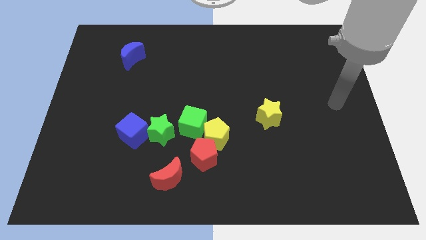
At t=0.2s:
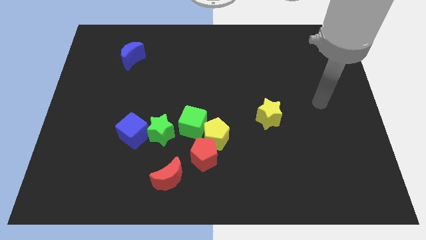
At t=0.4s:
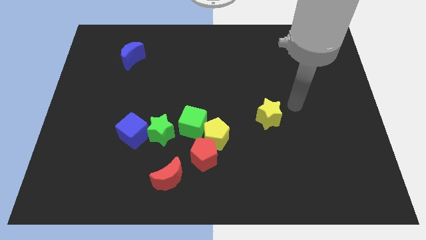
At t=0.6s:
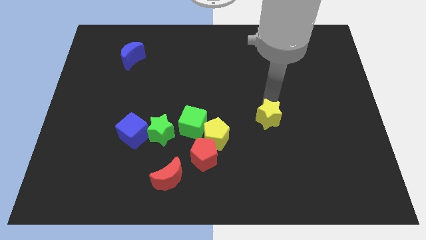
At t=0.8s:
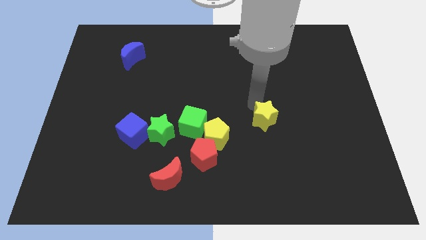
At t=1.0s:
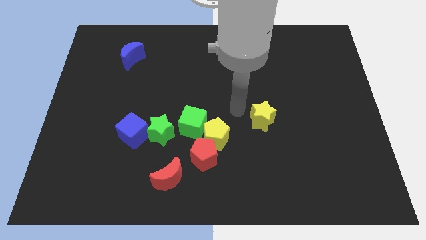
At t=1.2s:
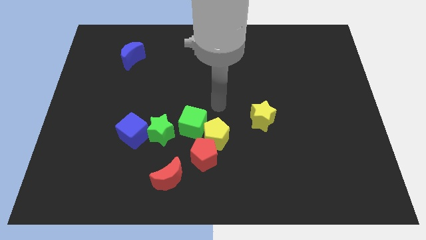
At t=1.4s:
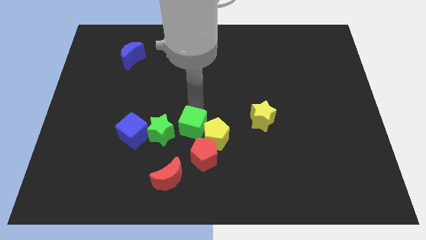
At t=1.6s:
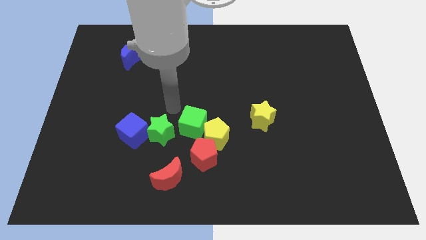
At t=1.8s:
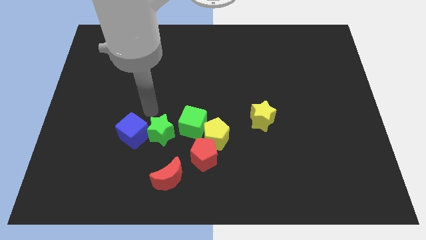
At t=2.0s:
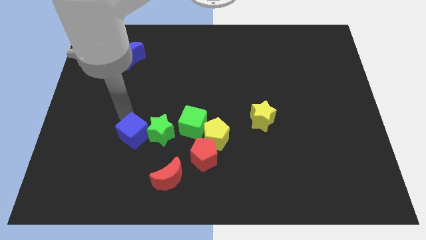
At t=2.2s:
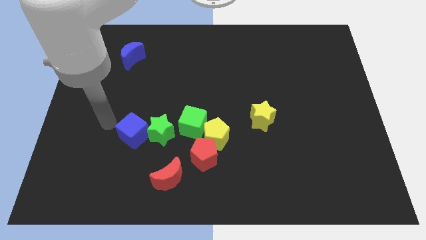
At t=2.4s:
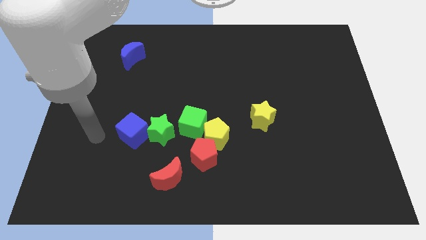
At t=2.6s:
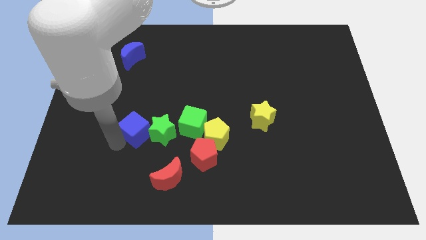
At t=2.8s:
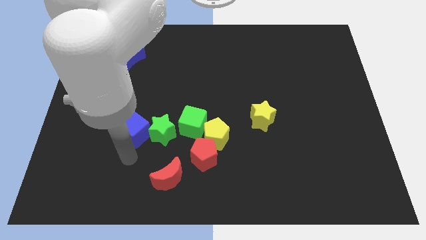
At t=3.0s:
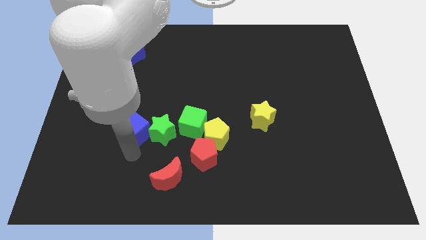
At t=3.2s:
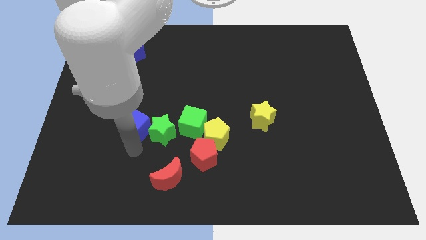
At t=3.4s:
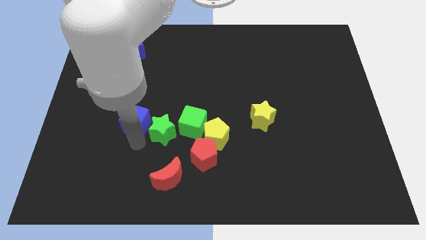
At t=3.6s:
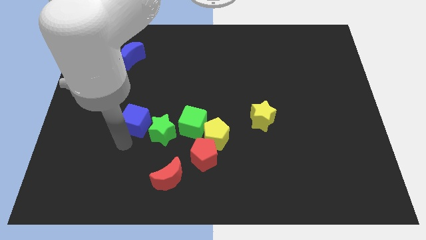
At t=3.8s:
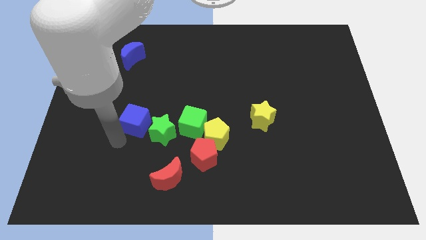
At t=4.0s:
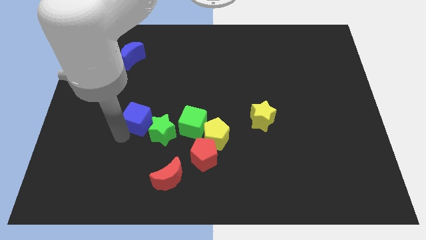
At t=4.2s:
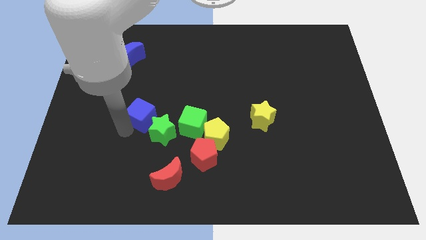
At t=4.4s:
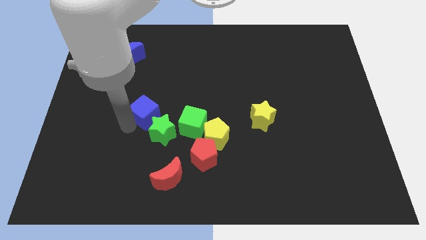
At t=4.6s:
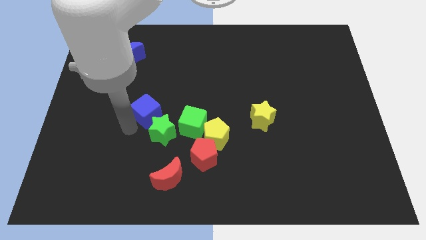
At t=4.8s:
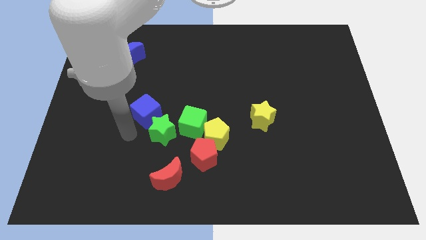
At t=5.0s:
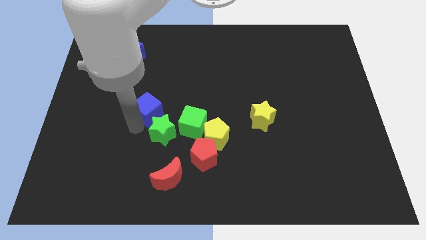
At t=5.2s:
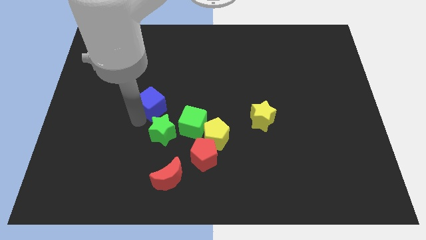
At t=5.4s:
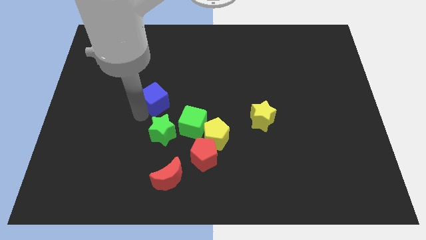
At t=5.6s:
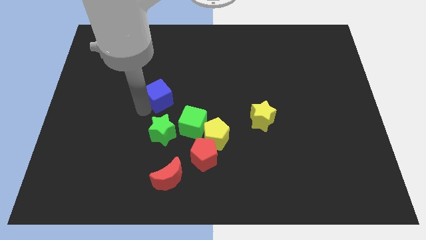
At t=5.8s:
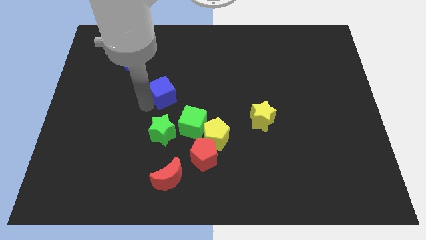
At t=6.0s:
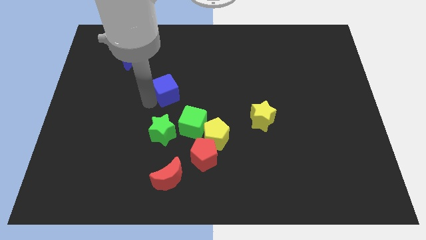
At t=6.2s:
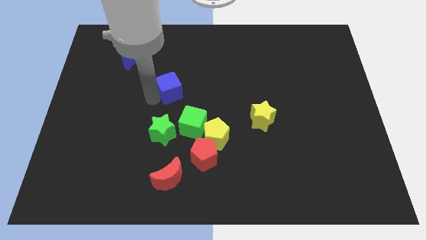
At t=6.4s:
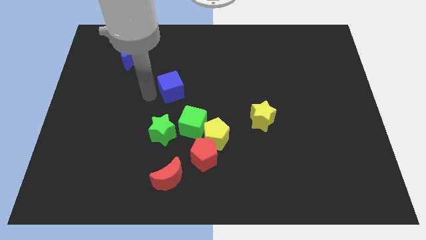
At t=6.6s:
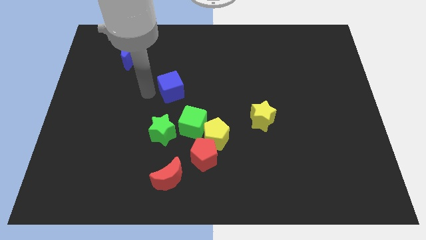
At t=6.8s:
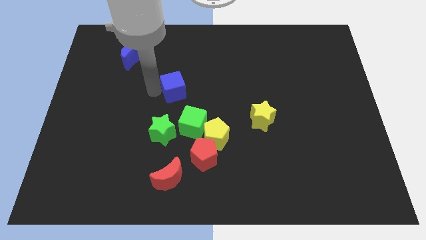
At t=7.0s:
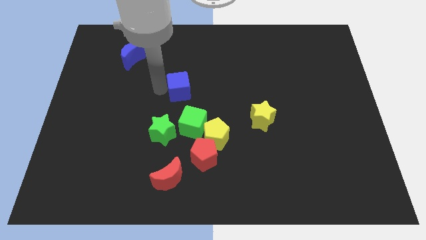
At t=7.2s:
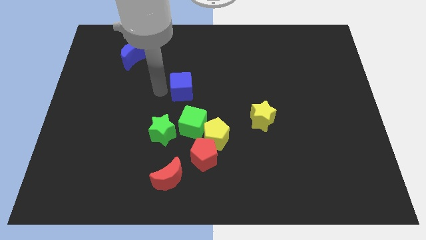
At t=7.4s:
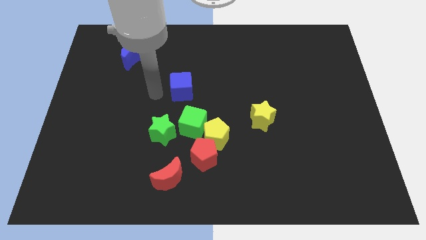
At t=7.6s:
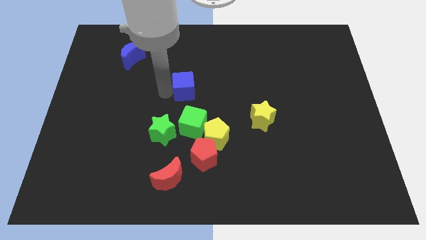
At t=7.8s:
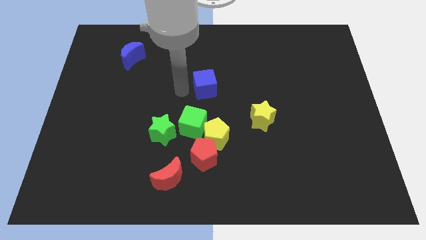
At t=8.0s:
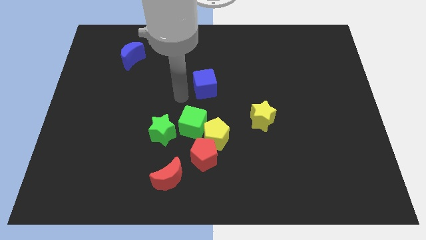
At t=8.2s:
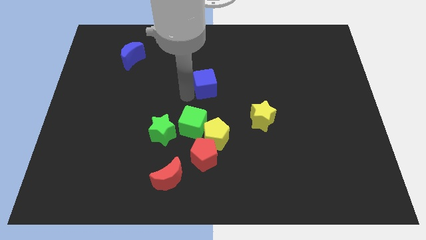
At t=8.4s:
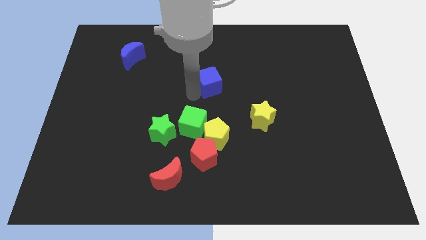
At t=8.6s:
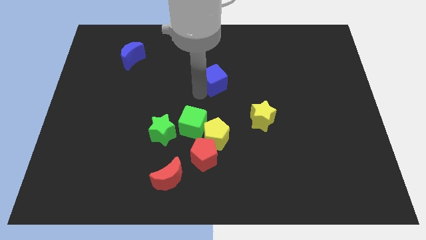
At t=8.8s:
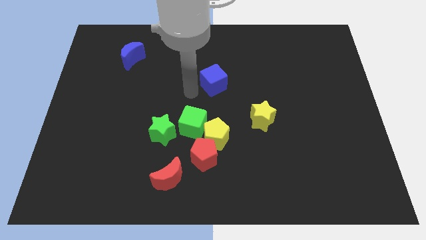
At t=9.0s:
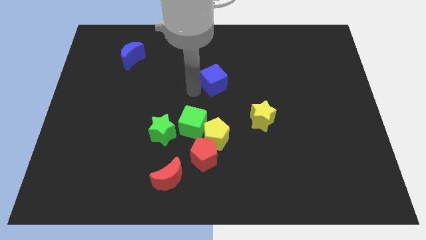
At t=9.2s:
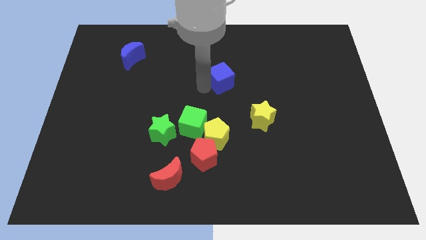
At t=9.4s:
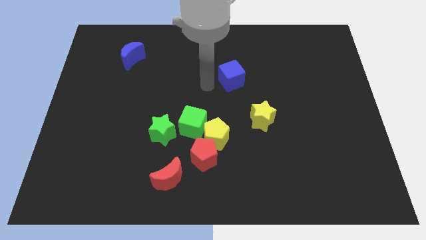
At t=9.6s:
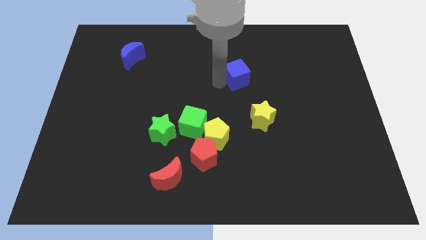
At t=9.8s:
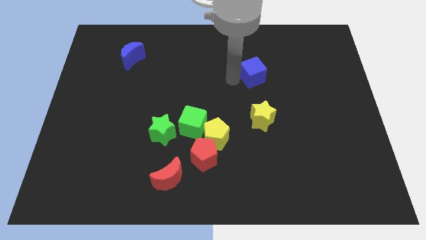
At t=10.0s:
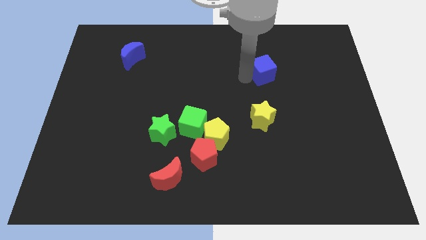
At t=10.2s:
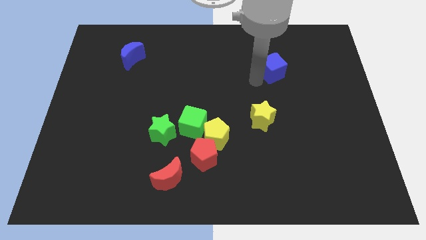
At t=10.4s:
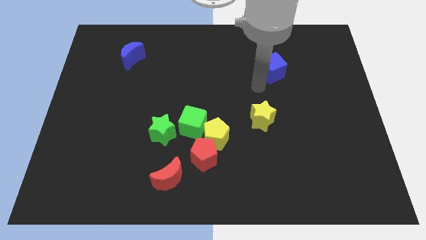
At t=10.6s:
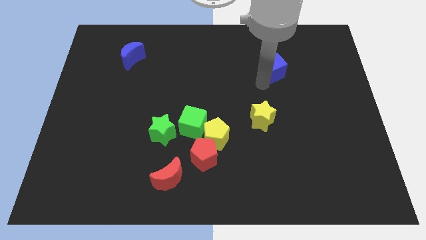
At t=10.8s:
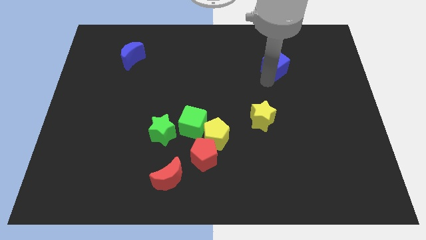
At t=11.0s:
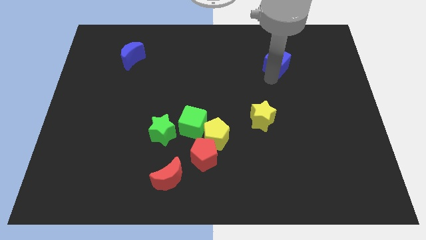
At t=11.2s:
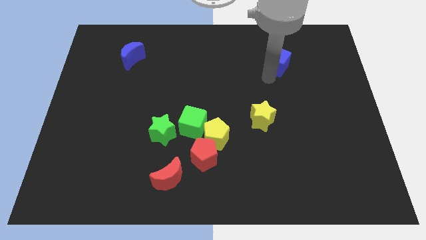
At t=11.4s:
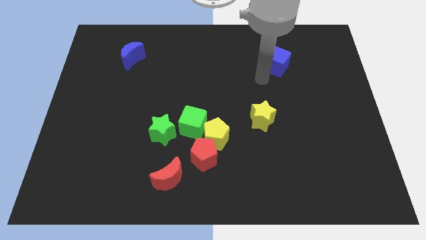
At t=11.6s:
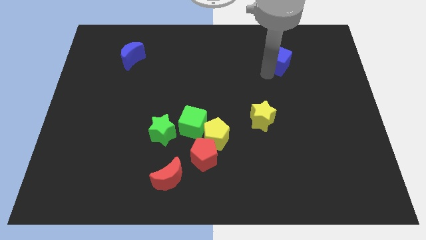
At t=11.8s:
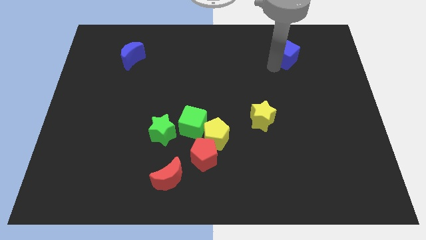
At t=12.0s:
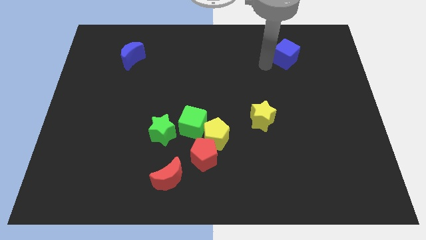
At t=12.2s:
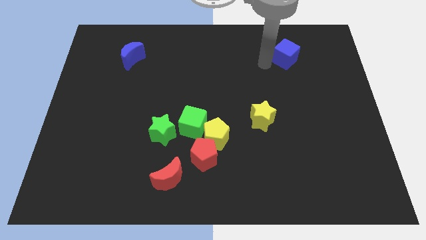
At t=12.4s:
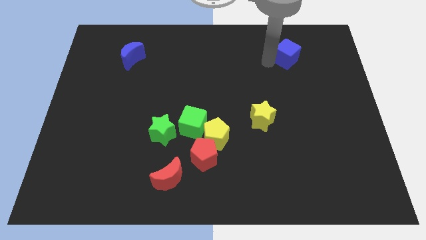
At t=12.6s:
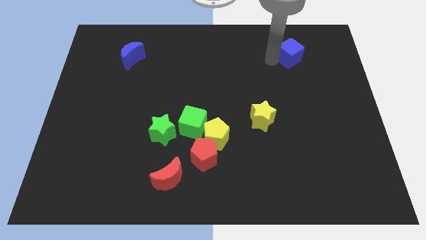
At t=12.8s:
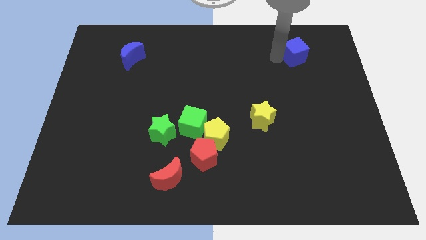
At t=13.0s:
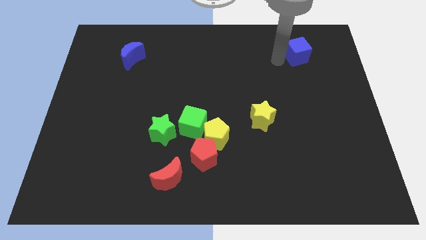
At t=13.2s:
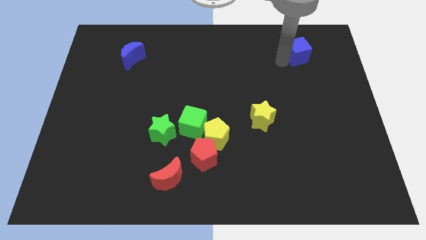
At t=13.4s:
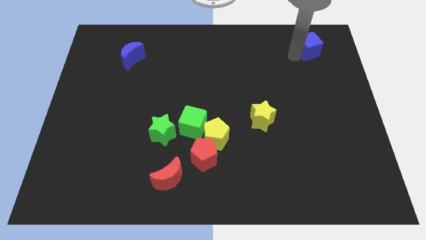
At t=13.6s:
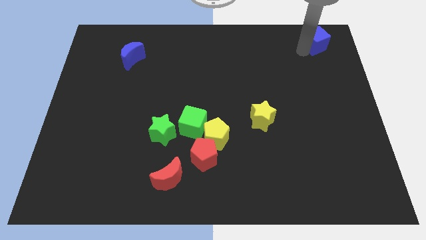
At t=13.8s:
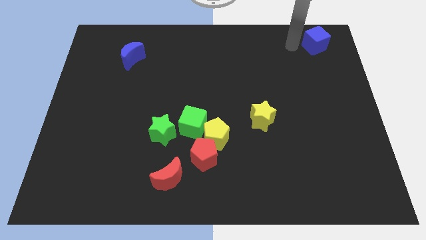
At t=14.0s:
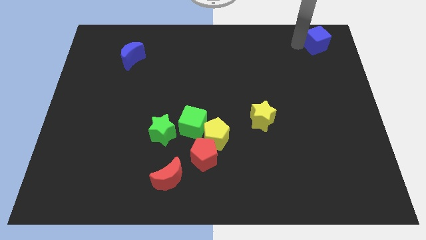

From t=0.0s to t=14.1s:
slide the blue cube to the top right corner

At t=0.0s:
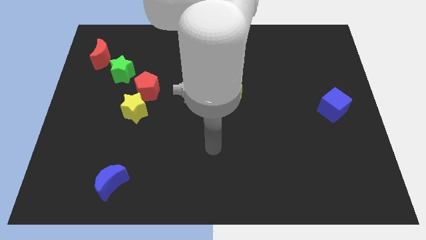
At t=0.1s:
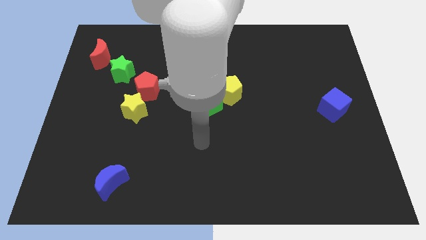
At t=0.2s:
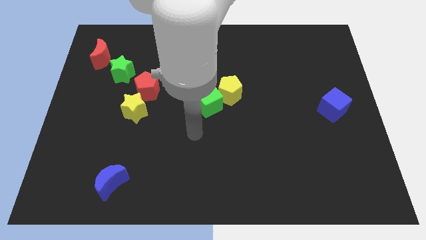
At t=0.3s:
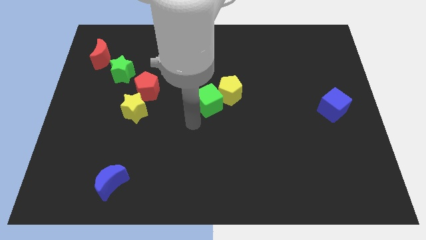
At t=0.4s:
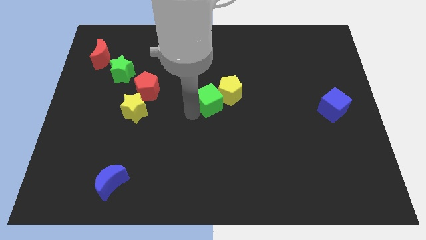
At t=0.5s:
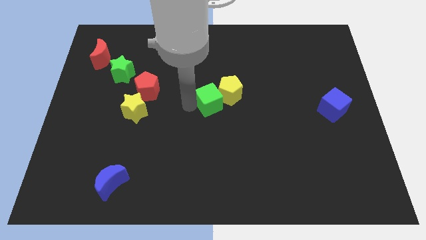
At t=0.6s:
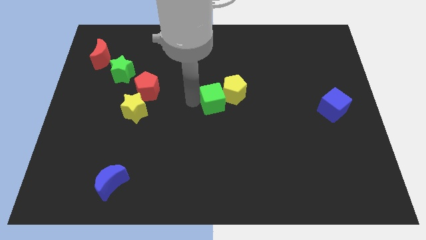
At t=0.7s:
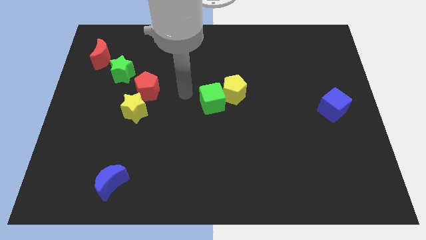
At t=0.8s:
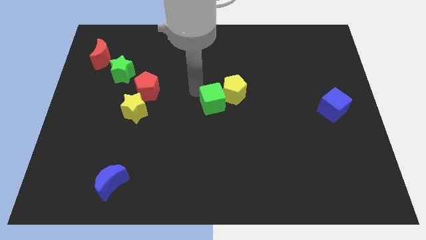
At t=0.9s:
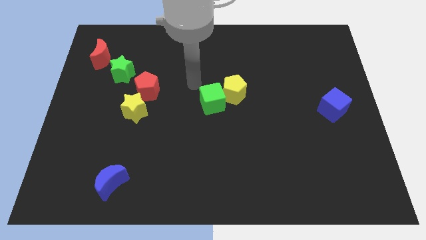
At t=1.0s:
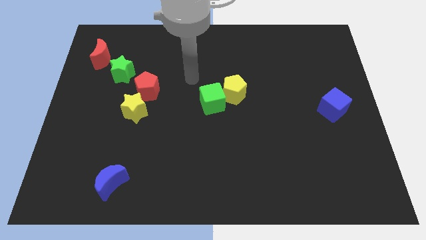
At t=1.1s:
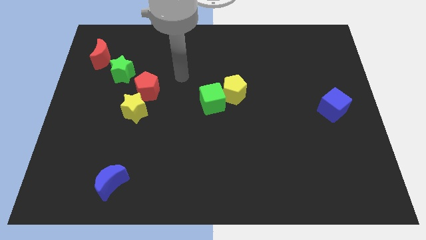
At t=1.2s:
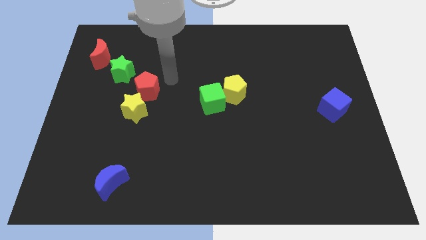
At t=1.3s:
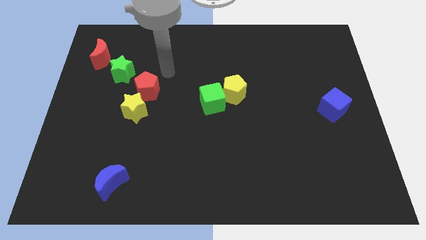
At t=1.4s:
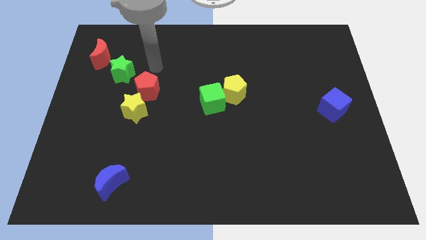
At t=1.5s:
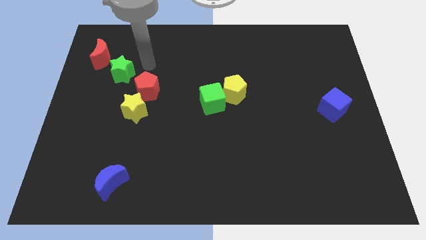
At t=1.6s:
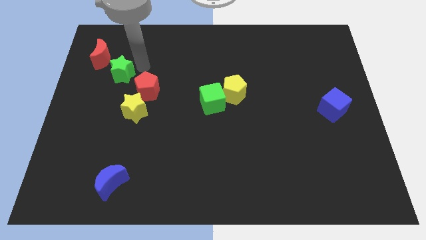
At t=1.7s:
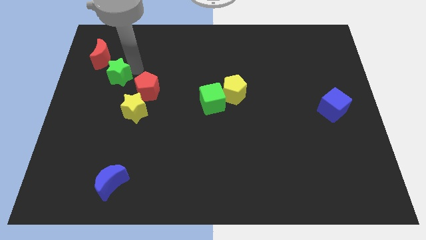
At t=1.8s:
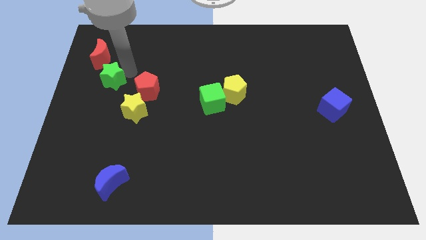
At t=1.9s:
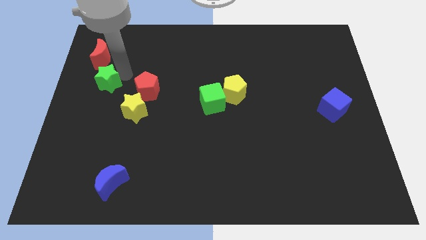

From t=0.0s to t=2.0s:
move the green star to the center left
